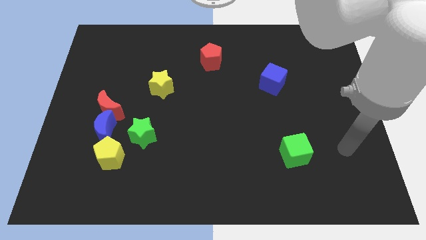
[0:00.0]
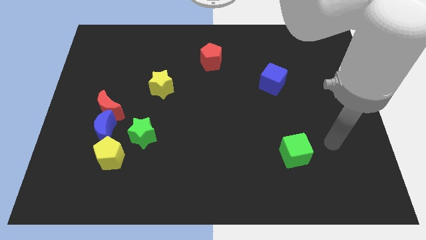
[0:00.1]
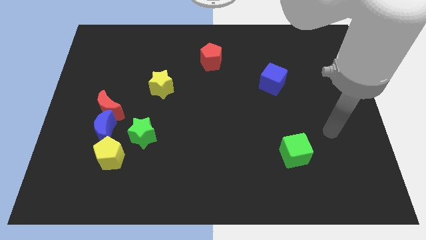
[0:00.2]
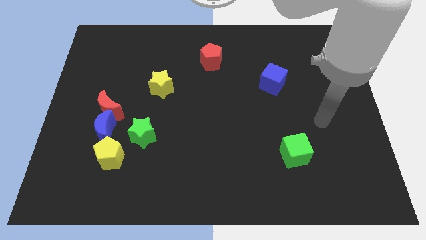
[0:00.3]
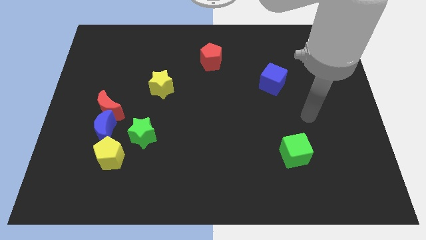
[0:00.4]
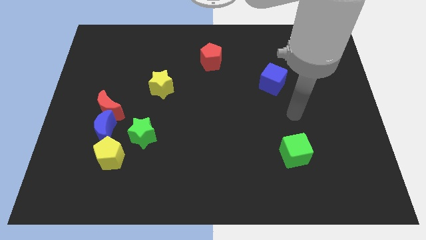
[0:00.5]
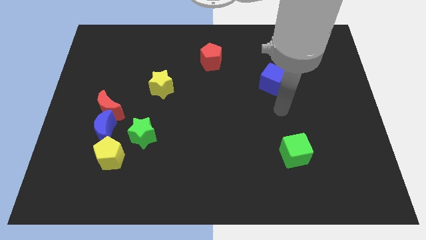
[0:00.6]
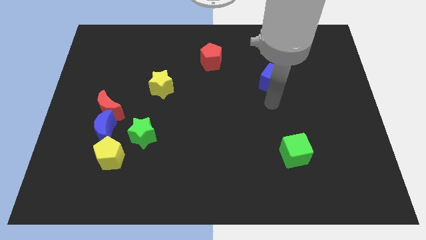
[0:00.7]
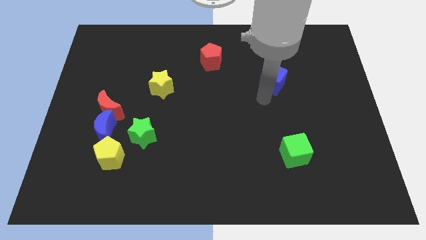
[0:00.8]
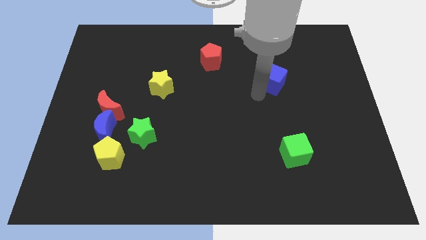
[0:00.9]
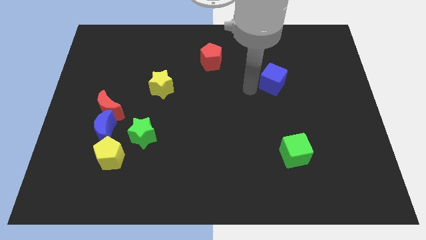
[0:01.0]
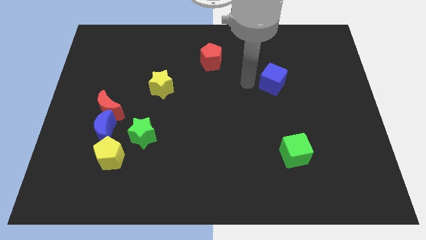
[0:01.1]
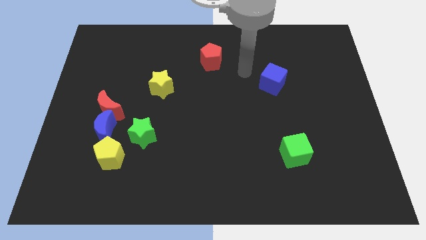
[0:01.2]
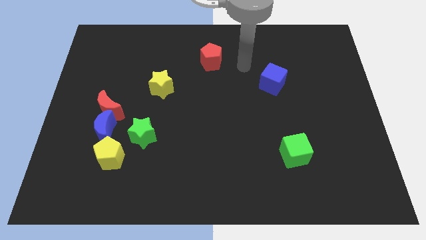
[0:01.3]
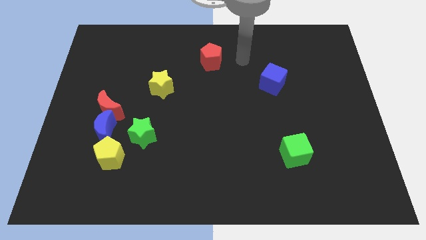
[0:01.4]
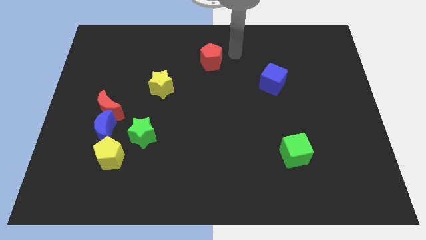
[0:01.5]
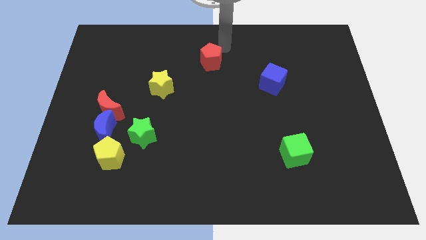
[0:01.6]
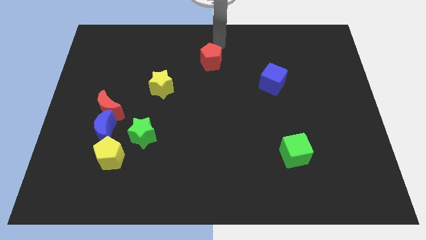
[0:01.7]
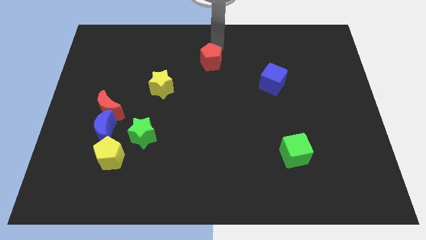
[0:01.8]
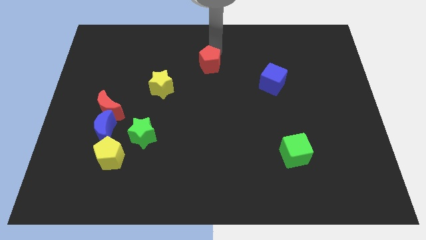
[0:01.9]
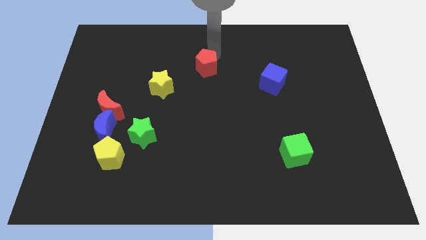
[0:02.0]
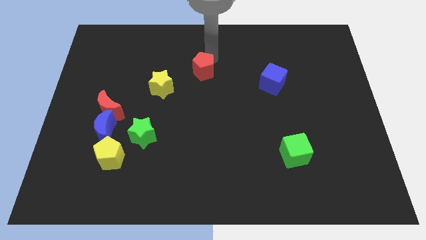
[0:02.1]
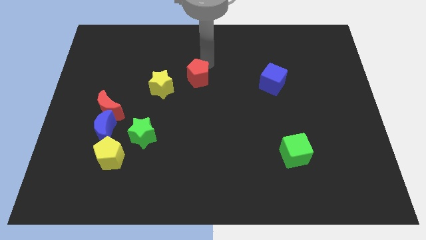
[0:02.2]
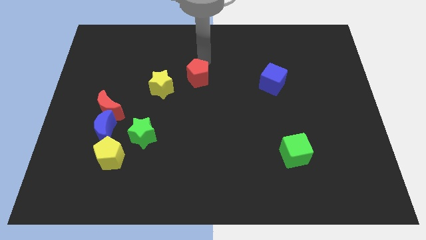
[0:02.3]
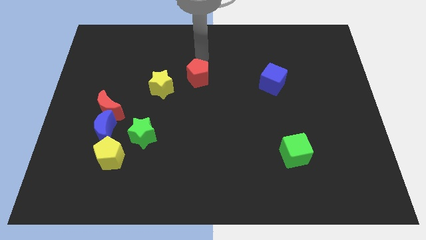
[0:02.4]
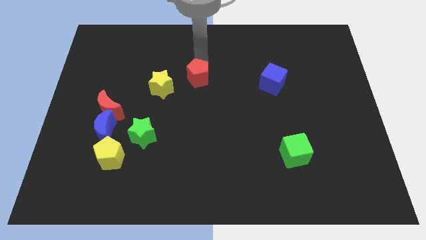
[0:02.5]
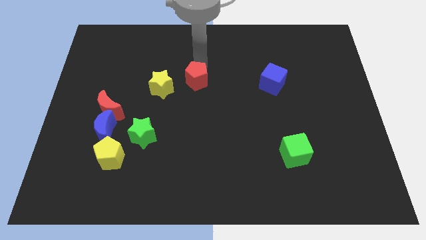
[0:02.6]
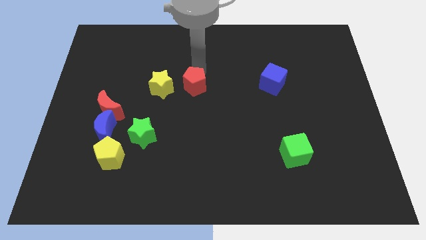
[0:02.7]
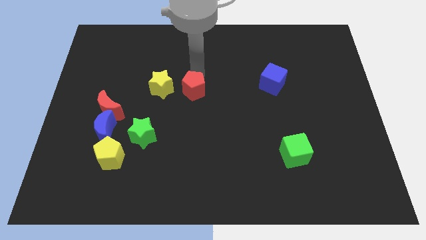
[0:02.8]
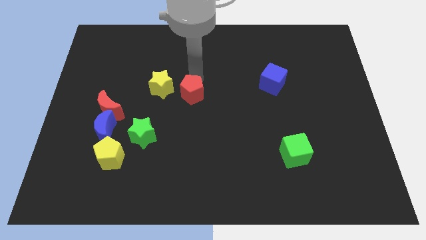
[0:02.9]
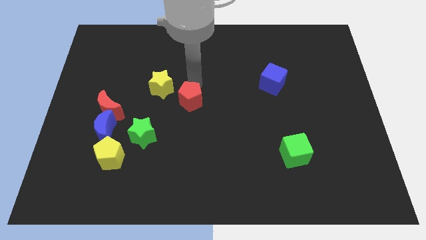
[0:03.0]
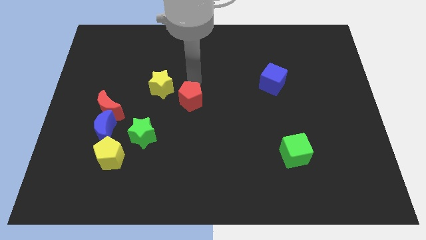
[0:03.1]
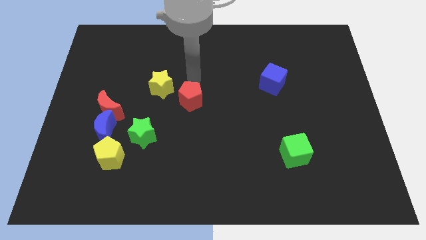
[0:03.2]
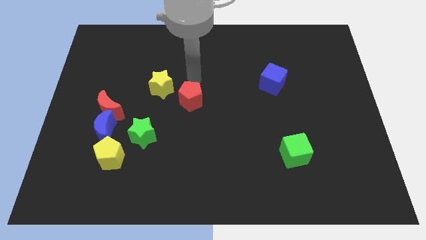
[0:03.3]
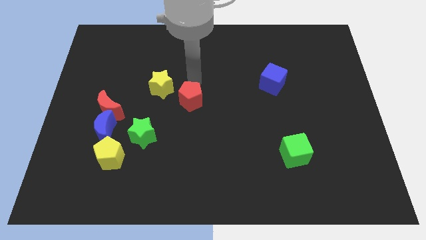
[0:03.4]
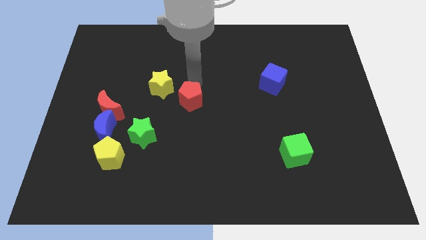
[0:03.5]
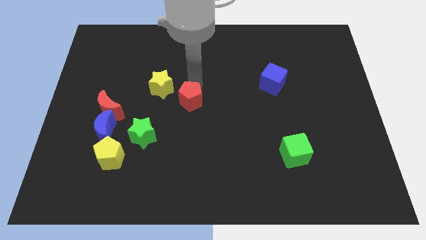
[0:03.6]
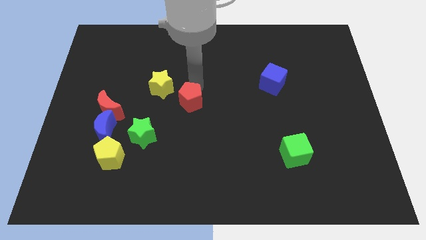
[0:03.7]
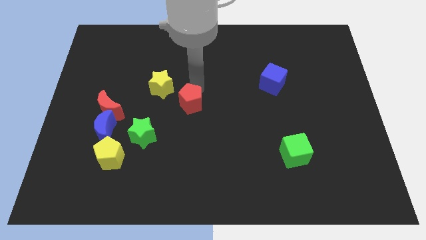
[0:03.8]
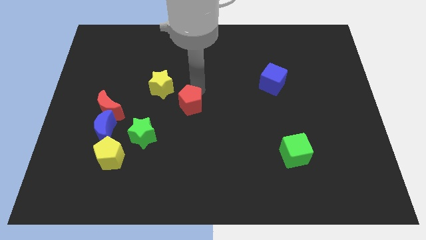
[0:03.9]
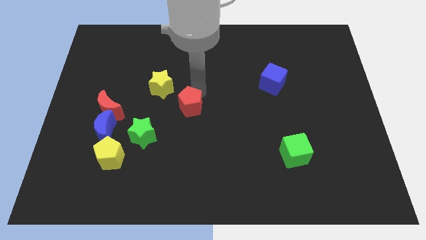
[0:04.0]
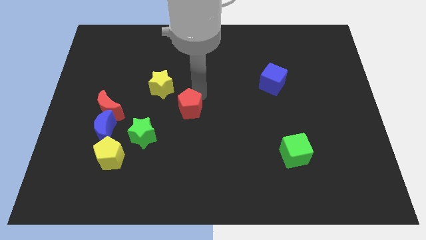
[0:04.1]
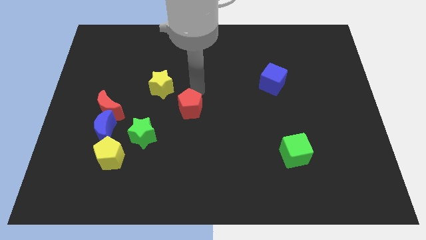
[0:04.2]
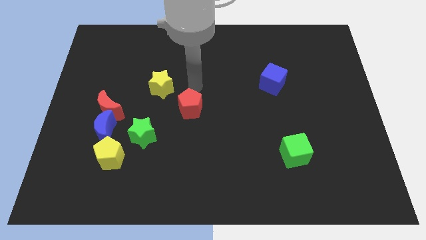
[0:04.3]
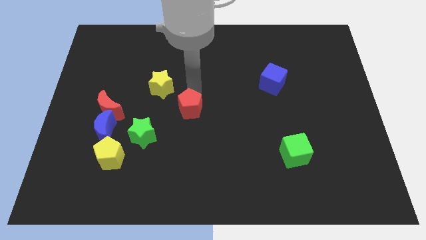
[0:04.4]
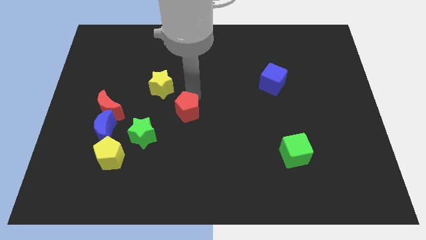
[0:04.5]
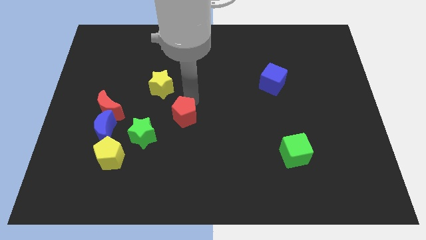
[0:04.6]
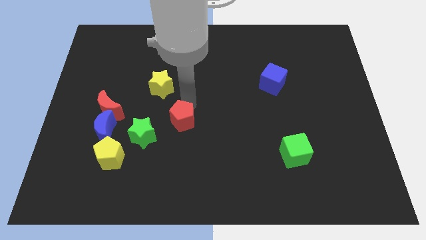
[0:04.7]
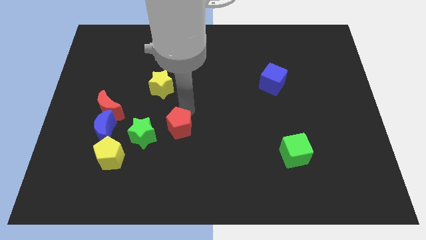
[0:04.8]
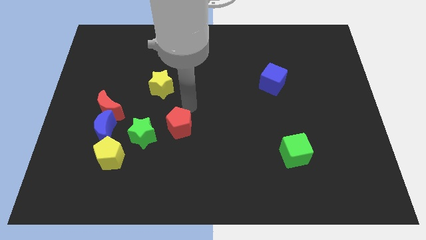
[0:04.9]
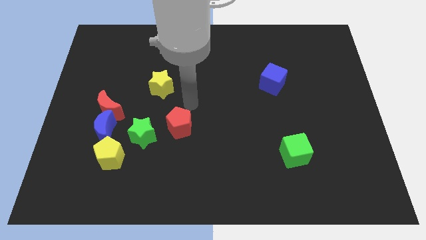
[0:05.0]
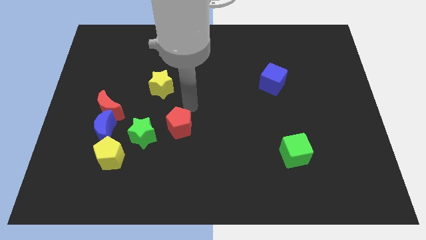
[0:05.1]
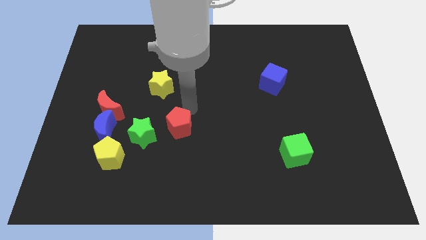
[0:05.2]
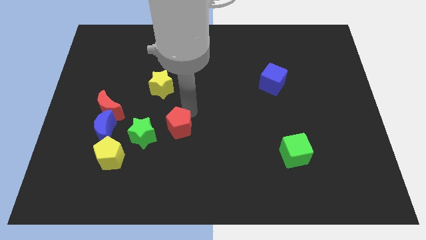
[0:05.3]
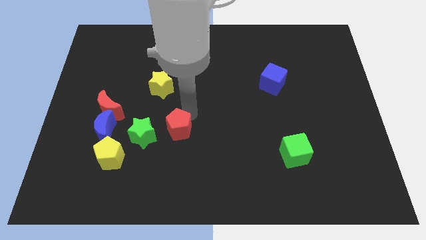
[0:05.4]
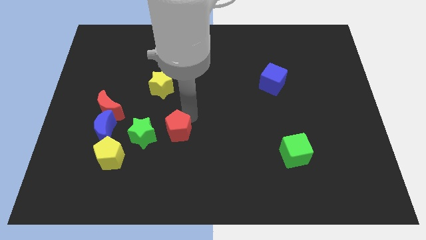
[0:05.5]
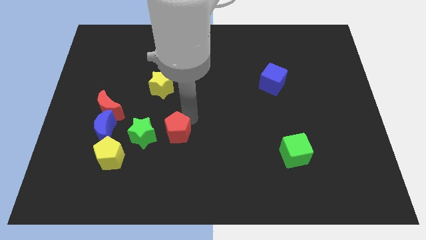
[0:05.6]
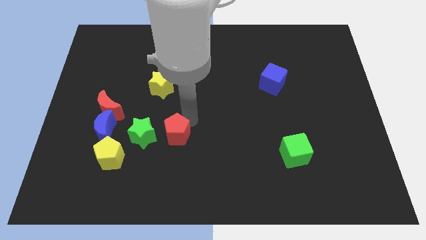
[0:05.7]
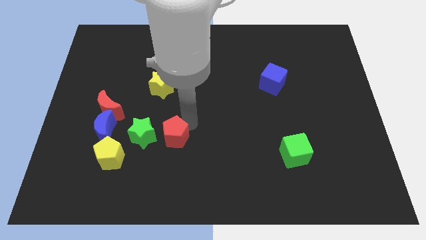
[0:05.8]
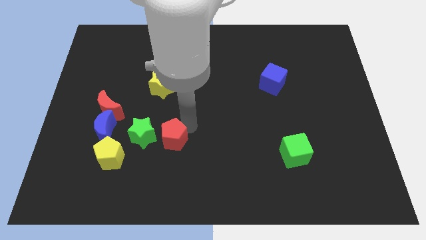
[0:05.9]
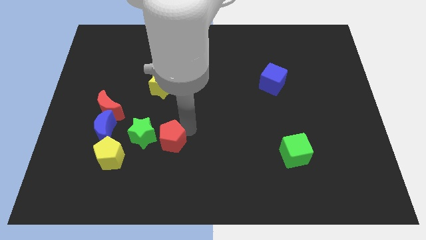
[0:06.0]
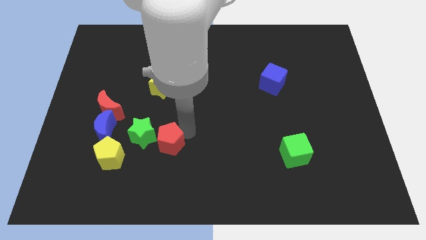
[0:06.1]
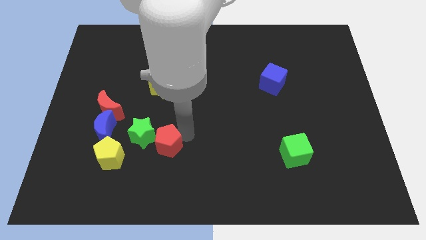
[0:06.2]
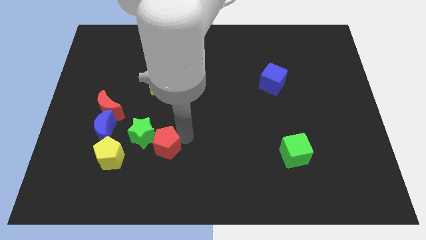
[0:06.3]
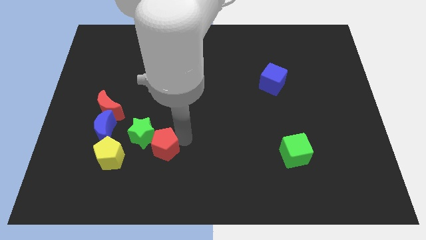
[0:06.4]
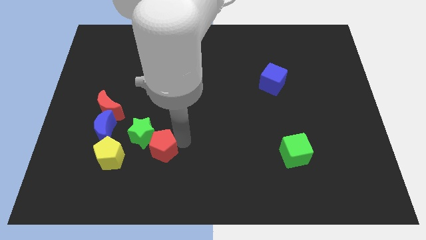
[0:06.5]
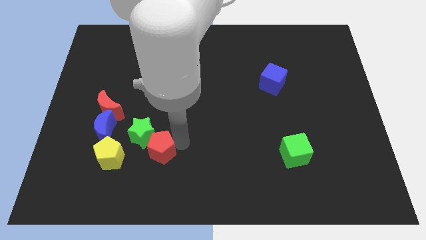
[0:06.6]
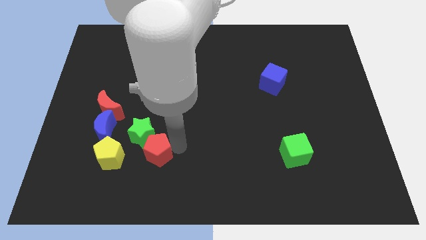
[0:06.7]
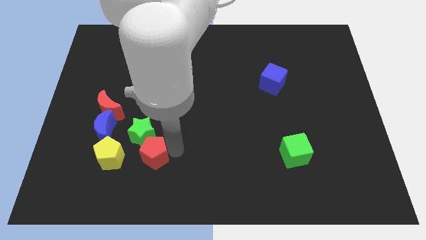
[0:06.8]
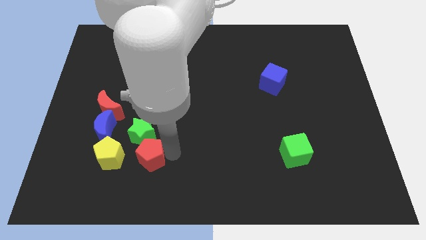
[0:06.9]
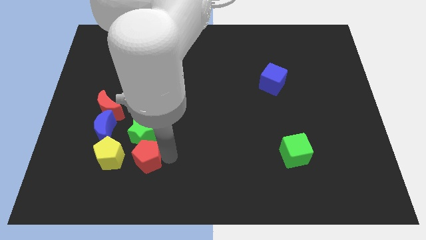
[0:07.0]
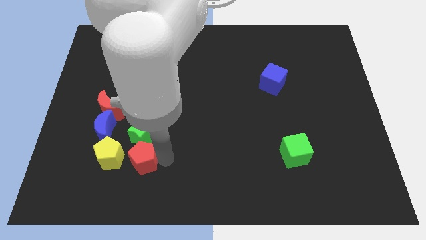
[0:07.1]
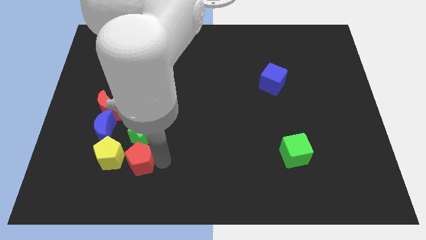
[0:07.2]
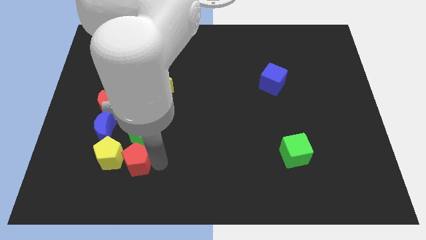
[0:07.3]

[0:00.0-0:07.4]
push the red pentagon to the yellow pentagon
